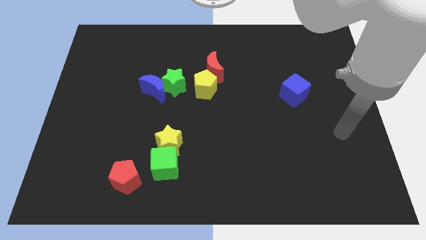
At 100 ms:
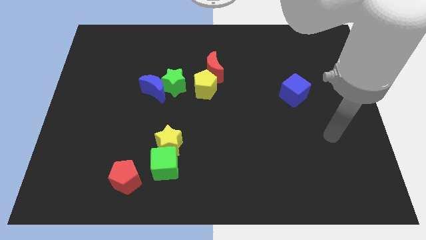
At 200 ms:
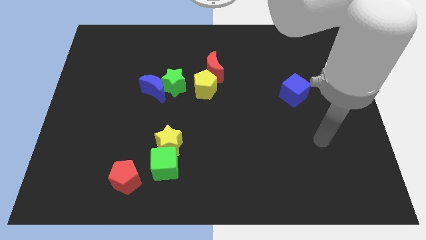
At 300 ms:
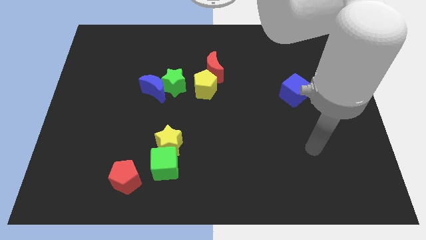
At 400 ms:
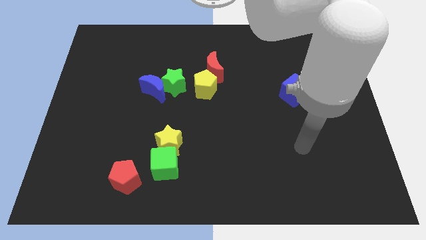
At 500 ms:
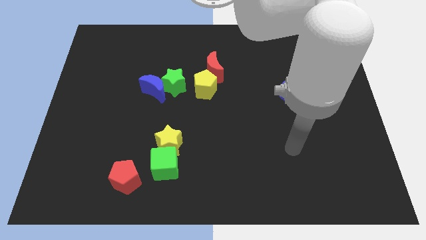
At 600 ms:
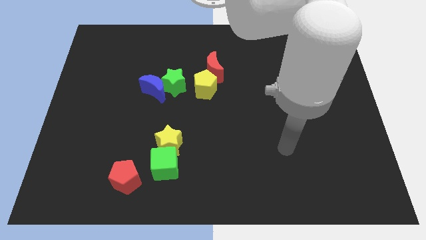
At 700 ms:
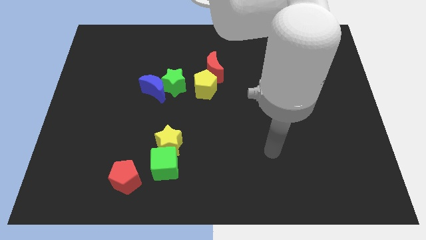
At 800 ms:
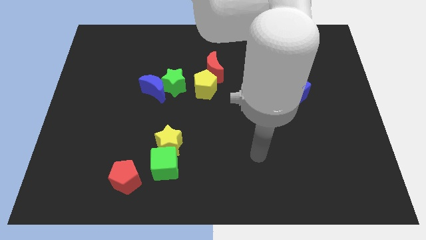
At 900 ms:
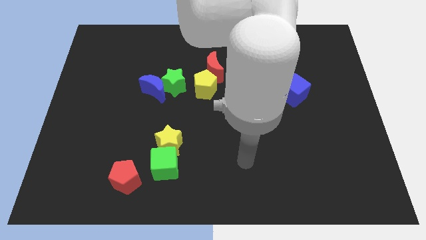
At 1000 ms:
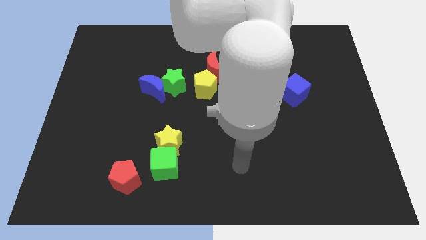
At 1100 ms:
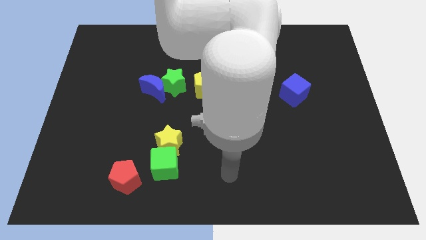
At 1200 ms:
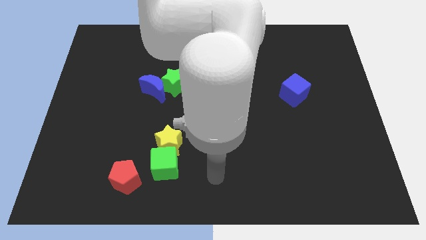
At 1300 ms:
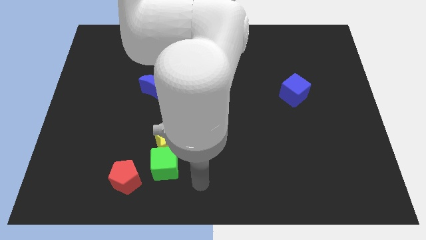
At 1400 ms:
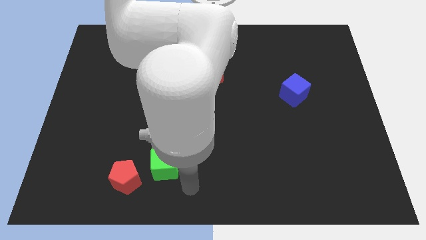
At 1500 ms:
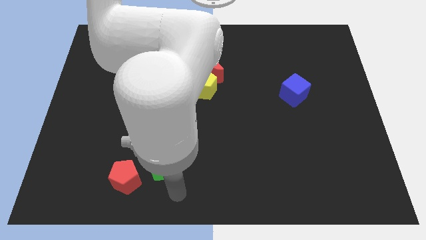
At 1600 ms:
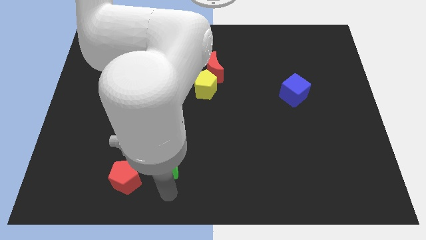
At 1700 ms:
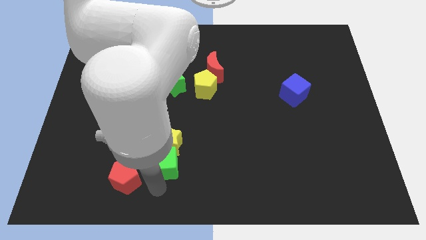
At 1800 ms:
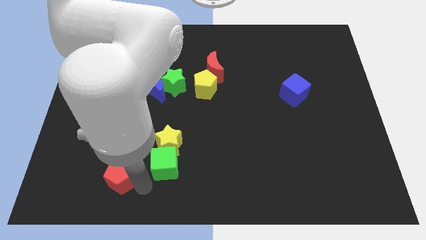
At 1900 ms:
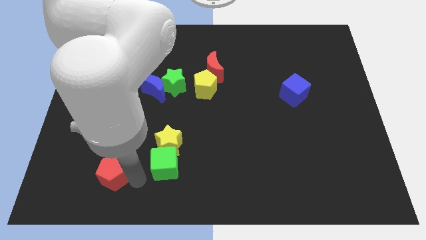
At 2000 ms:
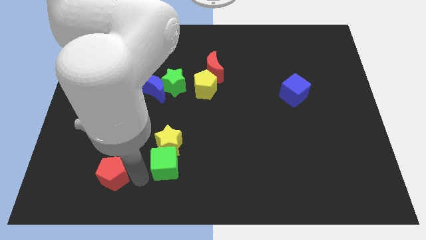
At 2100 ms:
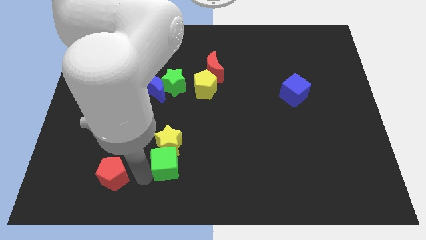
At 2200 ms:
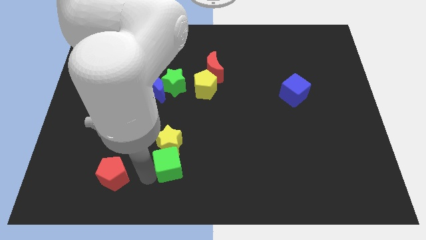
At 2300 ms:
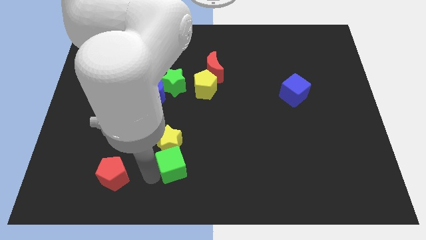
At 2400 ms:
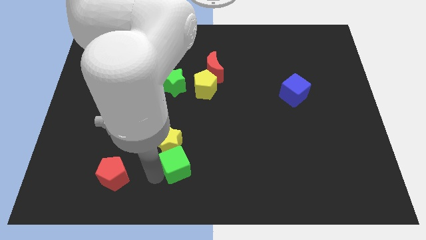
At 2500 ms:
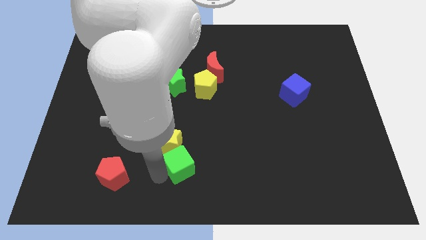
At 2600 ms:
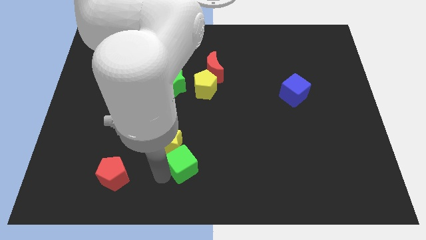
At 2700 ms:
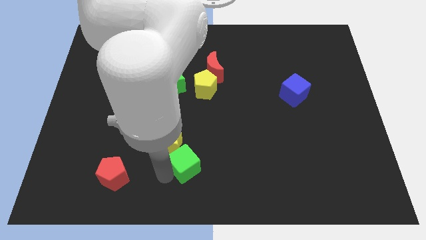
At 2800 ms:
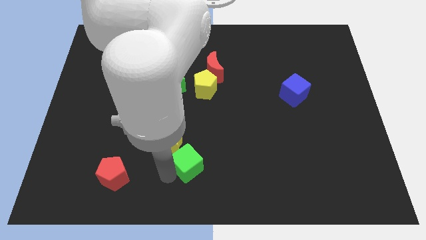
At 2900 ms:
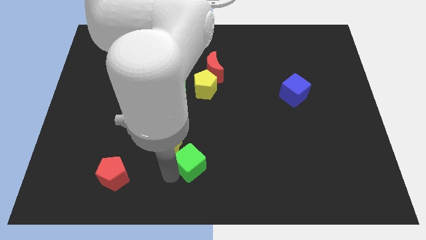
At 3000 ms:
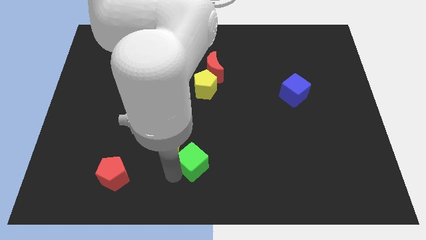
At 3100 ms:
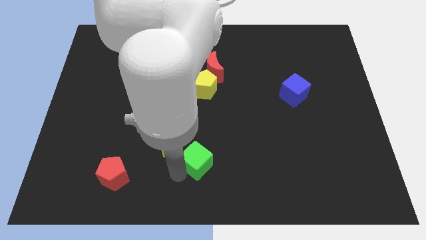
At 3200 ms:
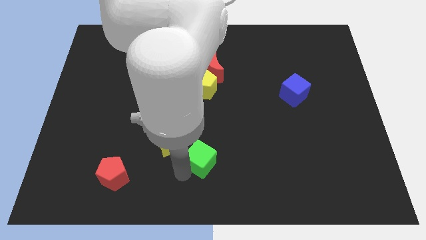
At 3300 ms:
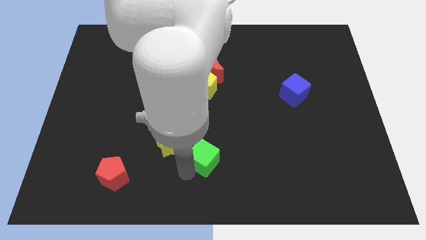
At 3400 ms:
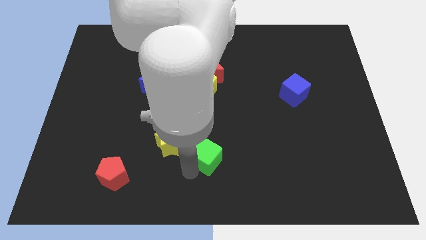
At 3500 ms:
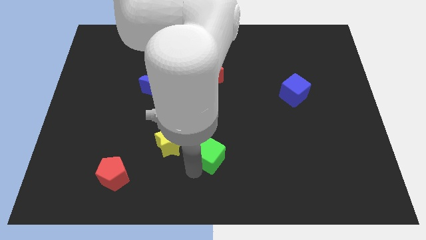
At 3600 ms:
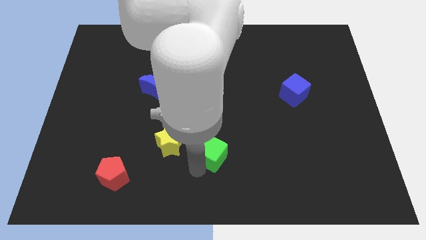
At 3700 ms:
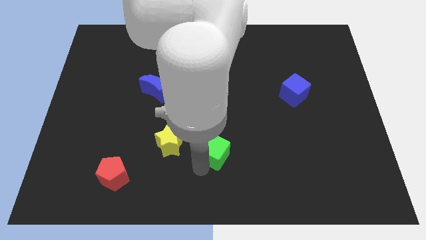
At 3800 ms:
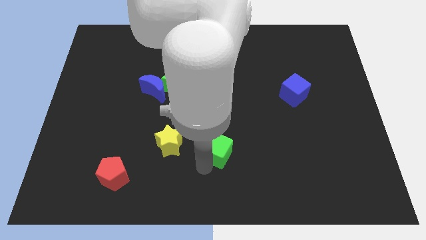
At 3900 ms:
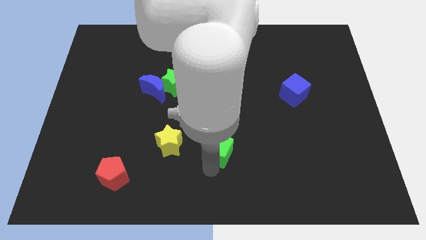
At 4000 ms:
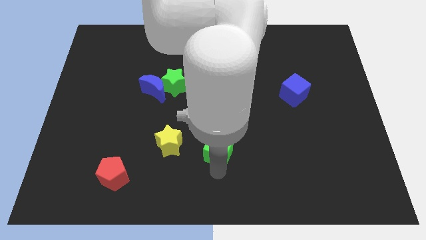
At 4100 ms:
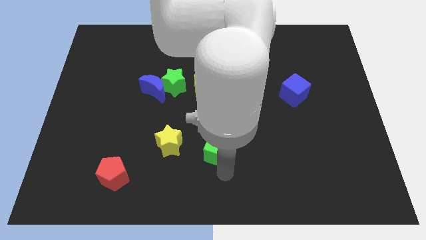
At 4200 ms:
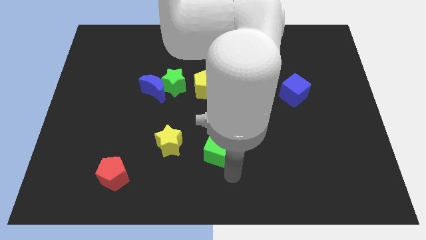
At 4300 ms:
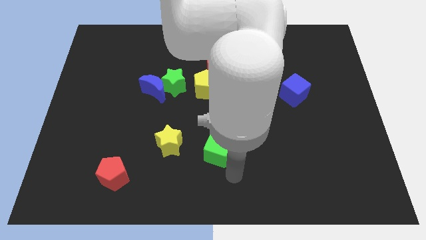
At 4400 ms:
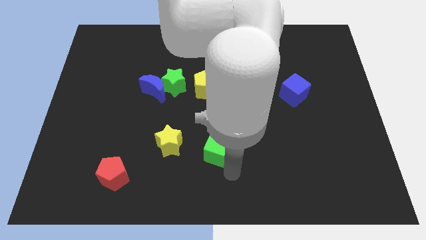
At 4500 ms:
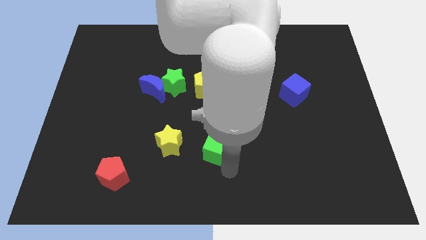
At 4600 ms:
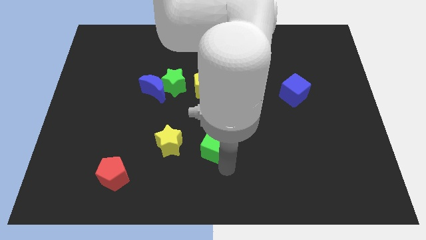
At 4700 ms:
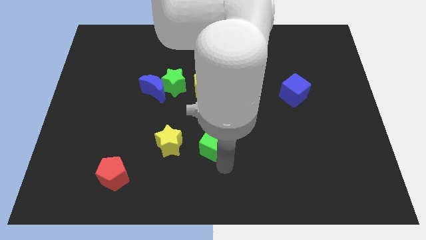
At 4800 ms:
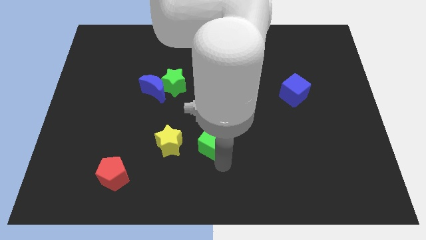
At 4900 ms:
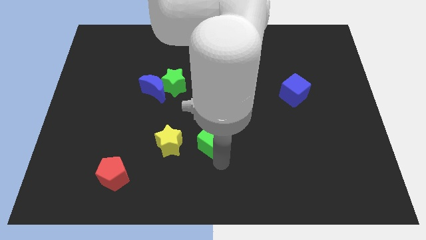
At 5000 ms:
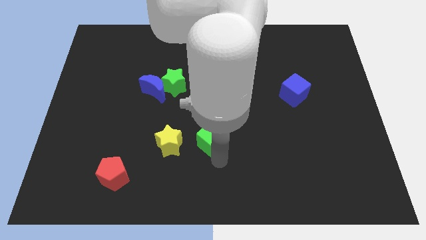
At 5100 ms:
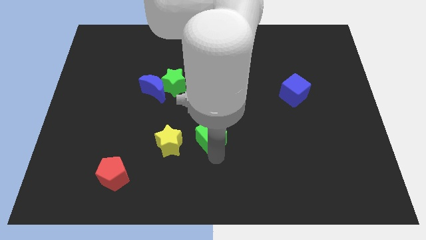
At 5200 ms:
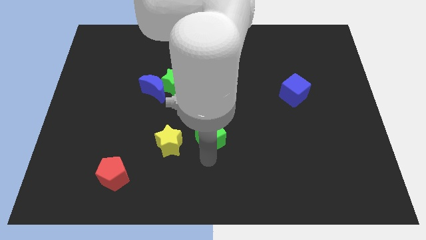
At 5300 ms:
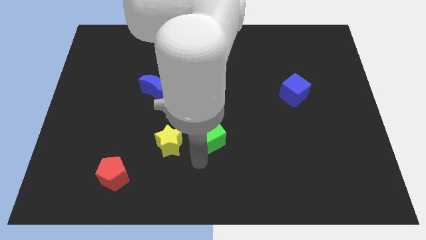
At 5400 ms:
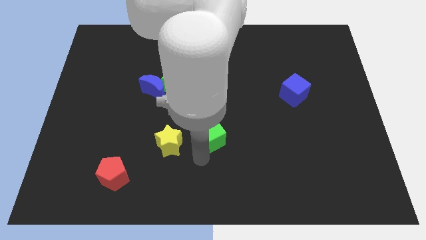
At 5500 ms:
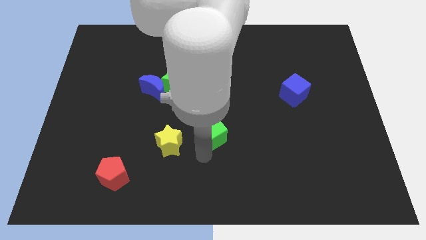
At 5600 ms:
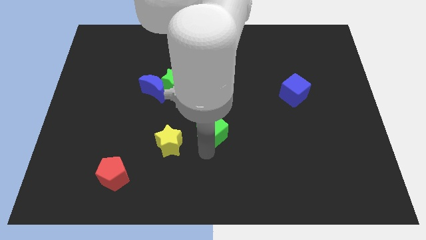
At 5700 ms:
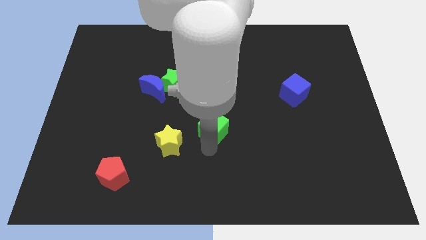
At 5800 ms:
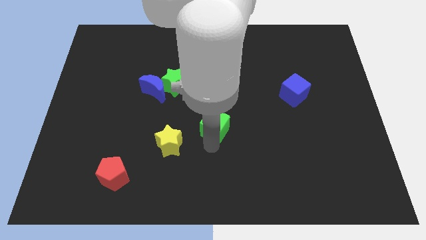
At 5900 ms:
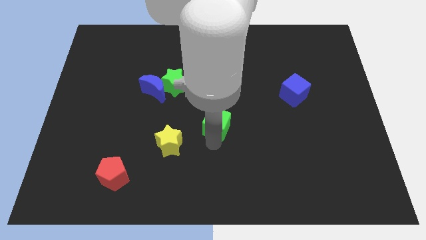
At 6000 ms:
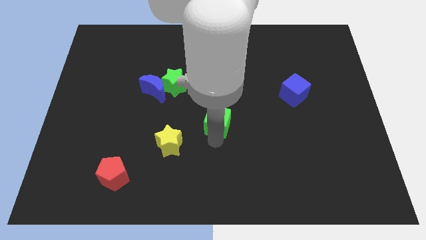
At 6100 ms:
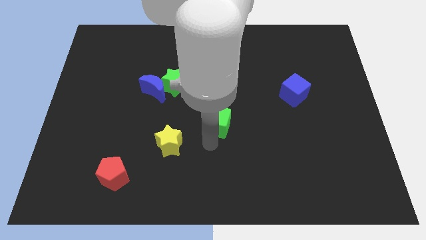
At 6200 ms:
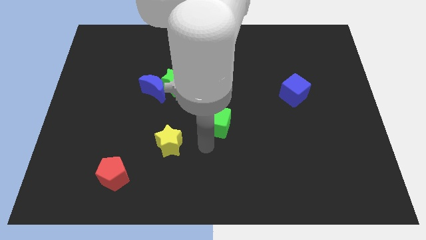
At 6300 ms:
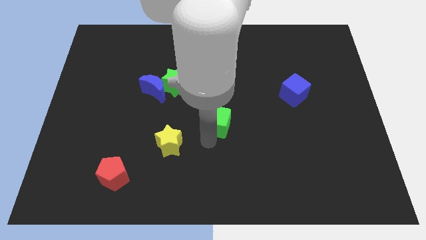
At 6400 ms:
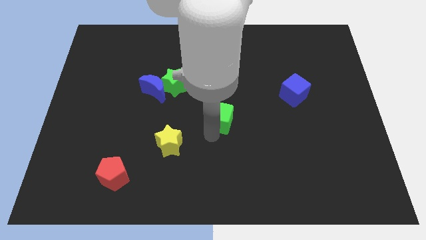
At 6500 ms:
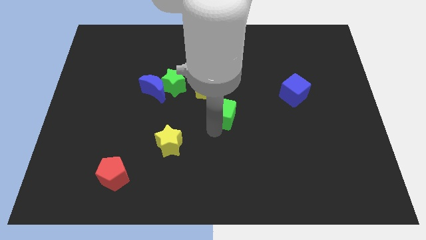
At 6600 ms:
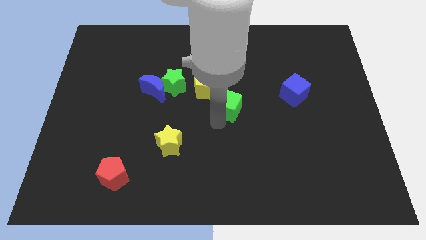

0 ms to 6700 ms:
move the green cube up and right diagonally

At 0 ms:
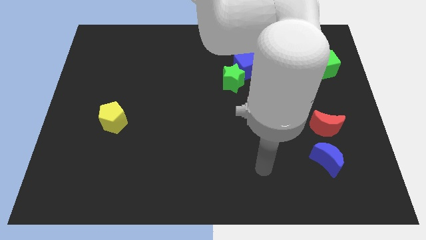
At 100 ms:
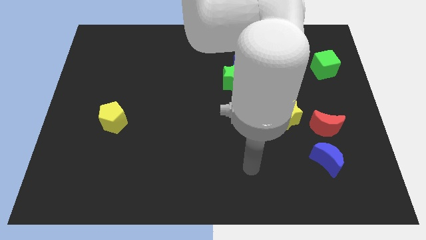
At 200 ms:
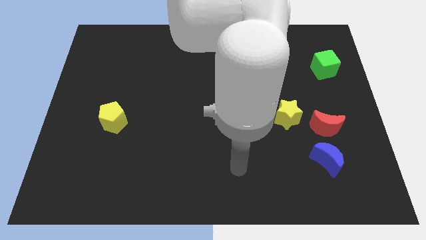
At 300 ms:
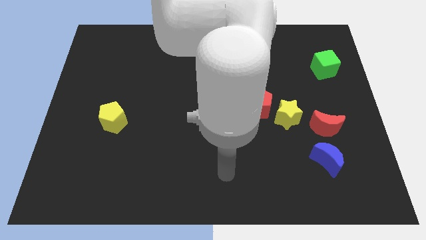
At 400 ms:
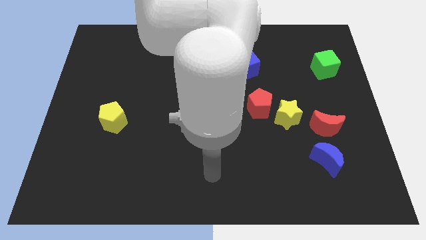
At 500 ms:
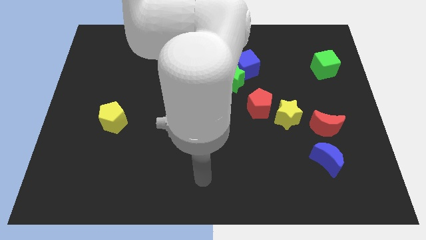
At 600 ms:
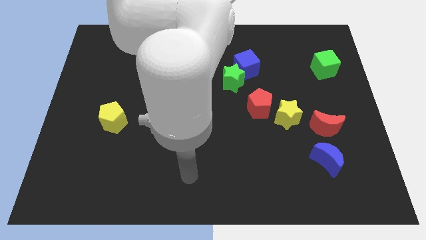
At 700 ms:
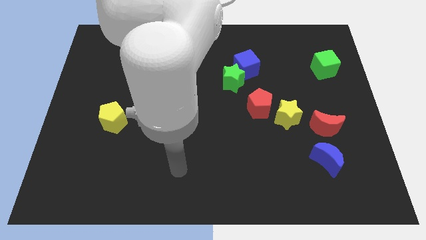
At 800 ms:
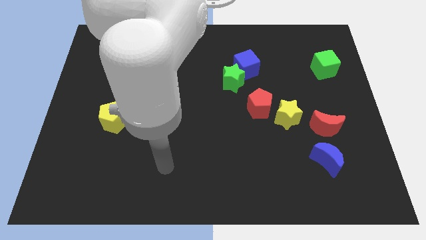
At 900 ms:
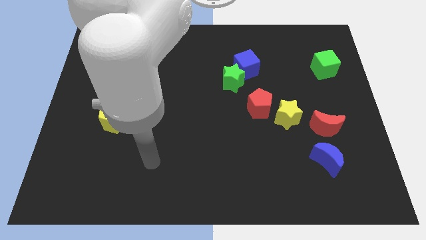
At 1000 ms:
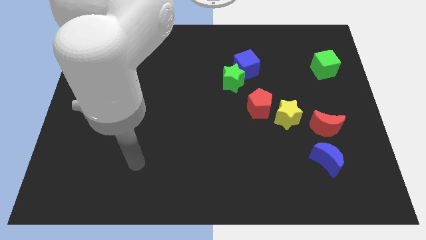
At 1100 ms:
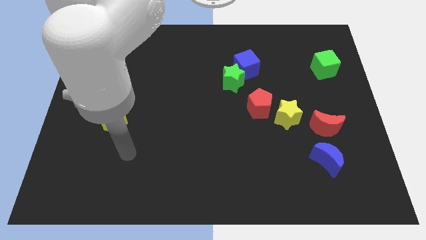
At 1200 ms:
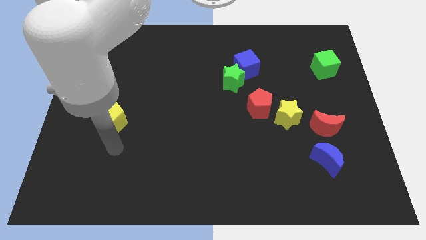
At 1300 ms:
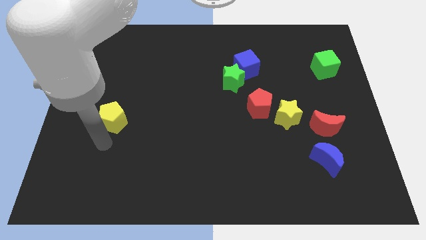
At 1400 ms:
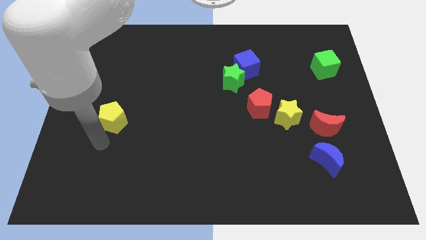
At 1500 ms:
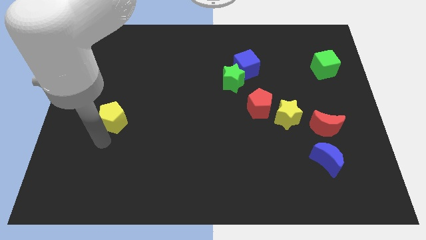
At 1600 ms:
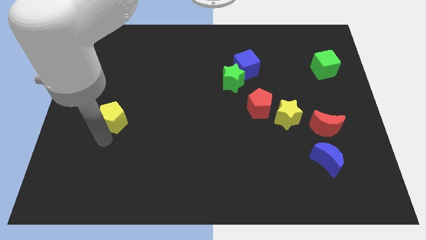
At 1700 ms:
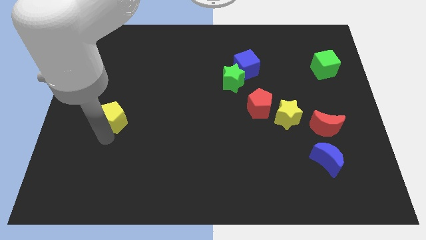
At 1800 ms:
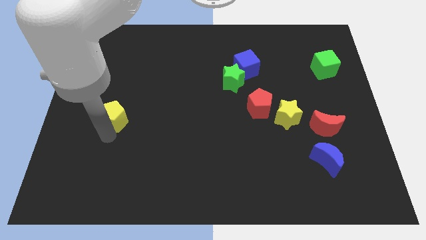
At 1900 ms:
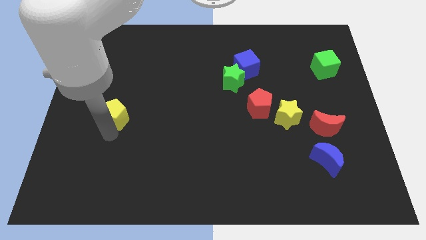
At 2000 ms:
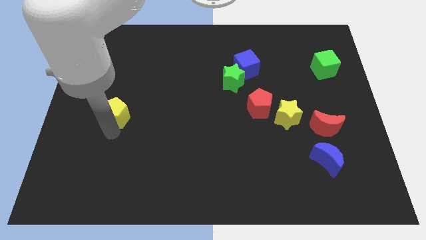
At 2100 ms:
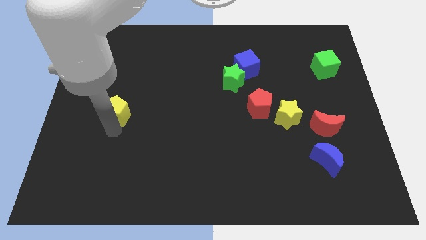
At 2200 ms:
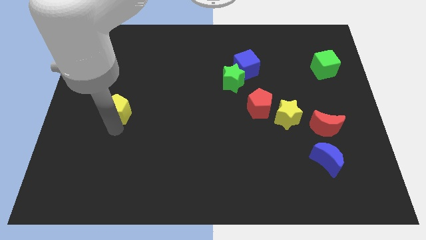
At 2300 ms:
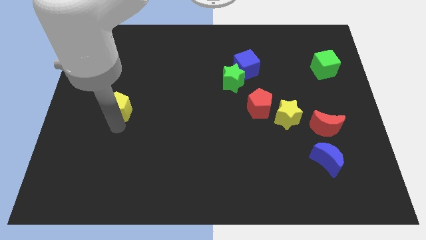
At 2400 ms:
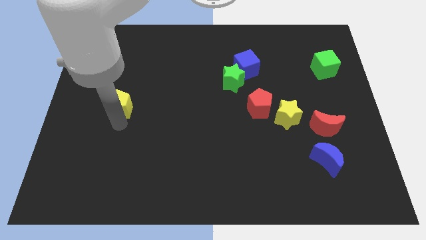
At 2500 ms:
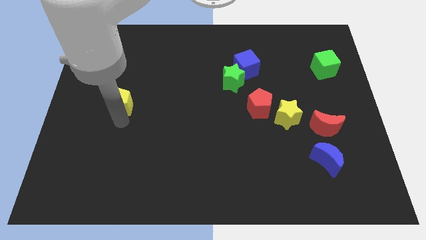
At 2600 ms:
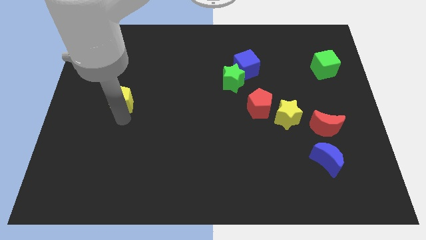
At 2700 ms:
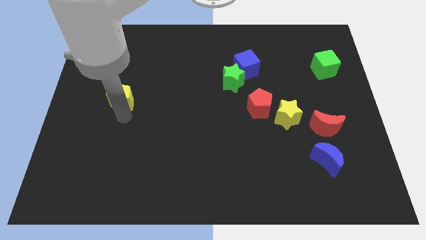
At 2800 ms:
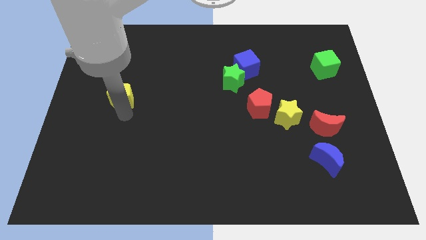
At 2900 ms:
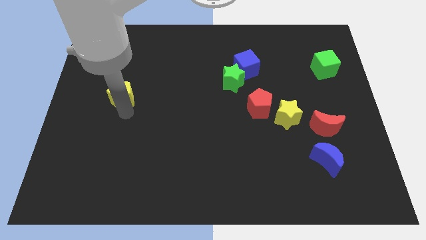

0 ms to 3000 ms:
push the yellow pentagon upwards a bit
